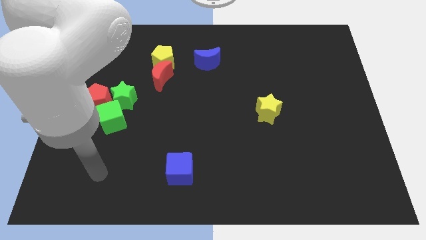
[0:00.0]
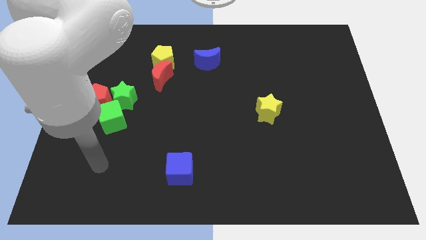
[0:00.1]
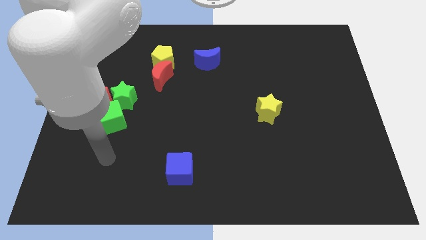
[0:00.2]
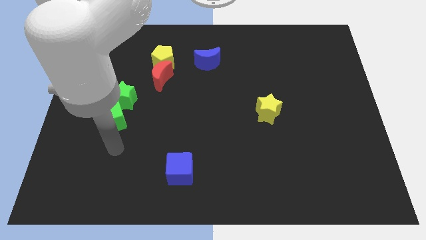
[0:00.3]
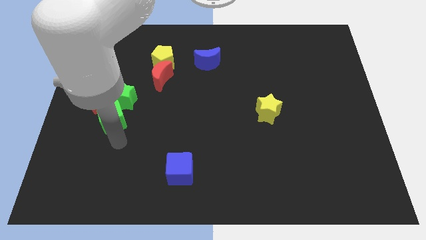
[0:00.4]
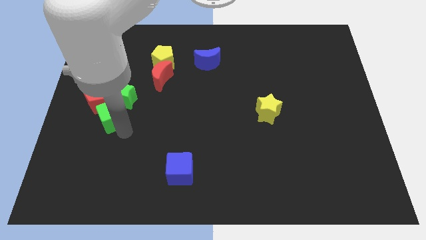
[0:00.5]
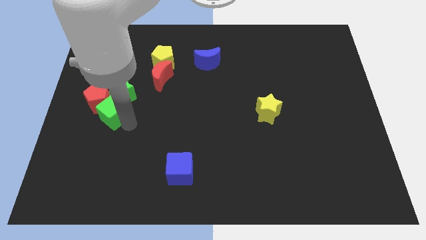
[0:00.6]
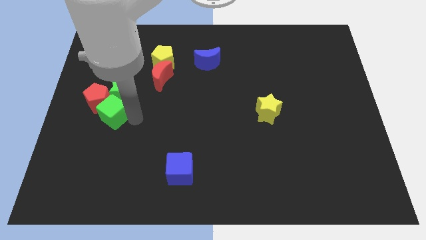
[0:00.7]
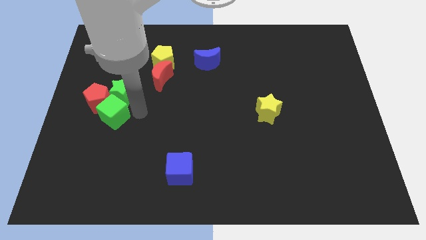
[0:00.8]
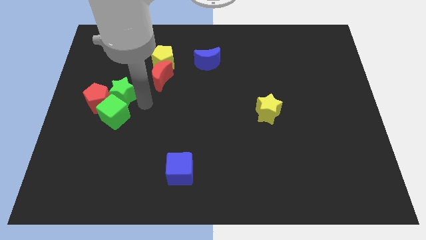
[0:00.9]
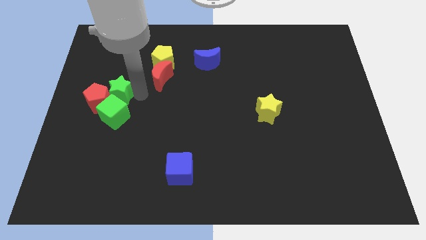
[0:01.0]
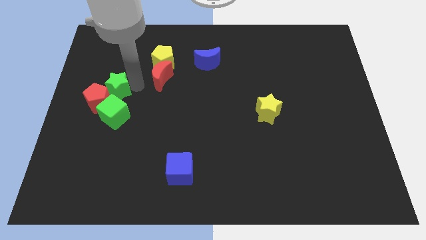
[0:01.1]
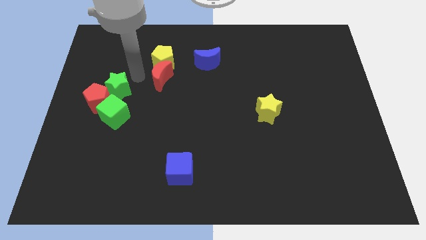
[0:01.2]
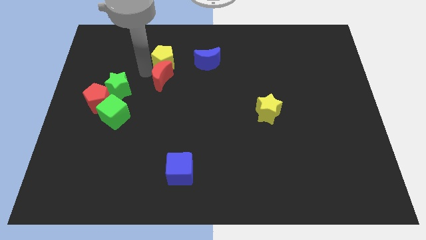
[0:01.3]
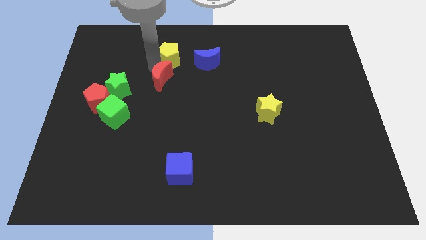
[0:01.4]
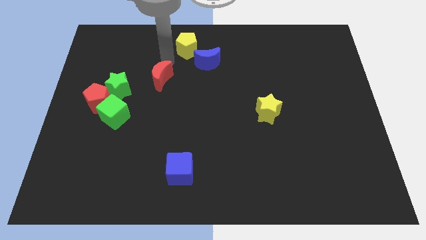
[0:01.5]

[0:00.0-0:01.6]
pull the red moon apart from the yellow pentagon

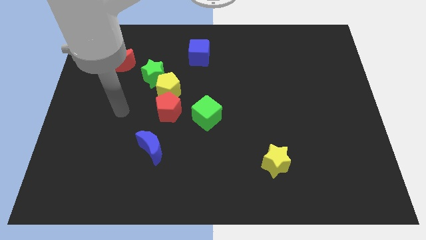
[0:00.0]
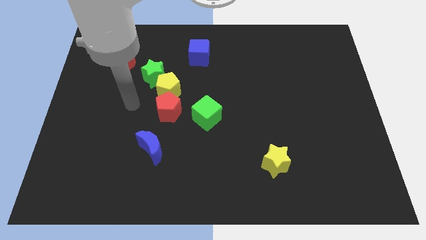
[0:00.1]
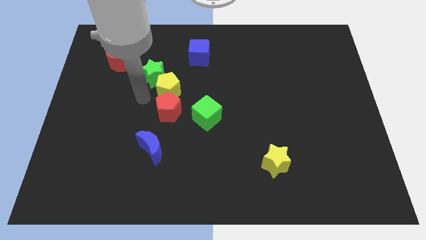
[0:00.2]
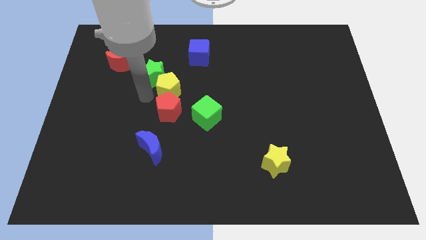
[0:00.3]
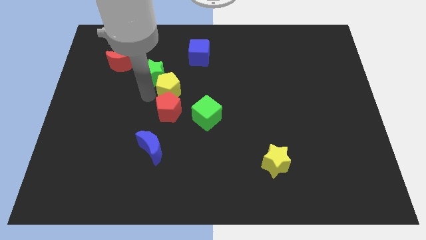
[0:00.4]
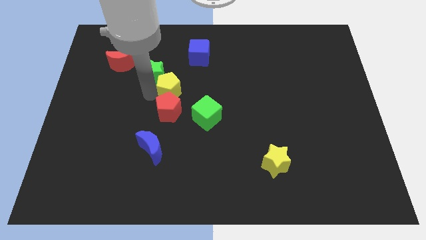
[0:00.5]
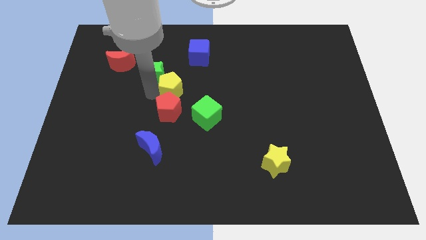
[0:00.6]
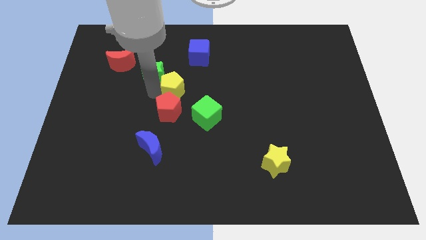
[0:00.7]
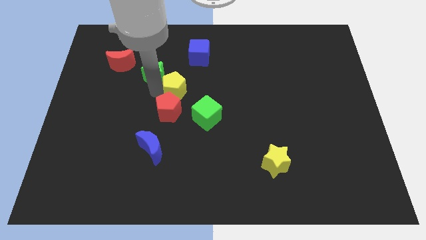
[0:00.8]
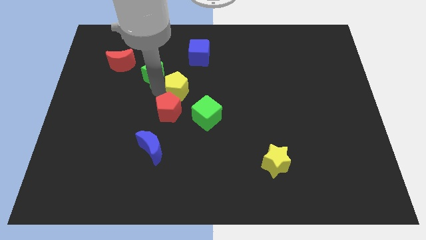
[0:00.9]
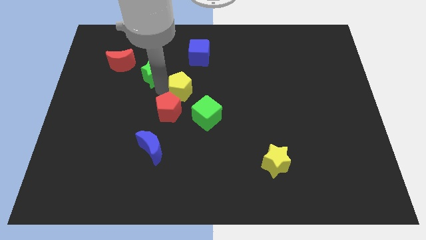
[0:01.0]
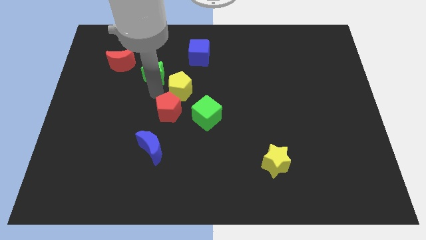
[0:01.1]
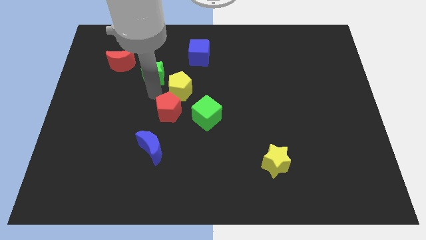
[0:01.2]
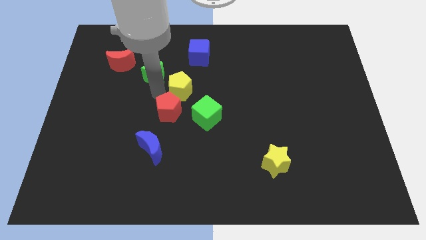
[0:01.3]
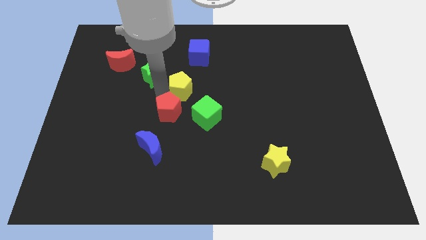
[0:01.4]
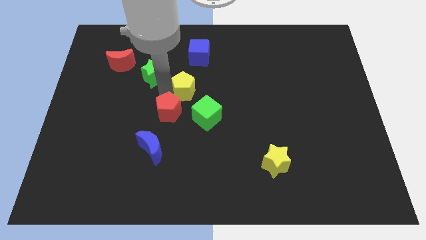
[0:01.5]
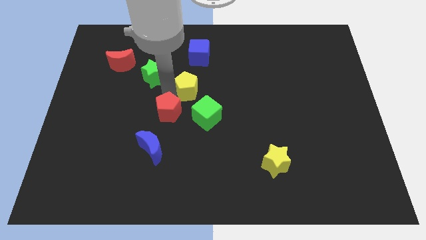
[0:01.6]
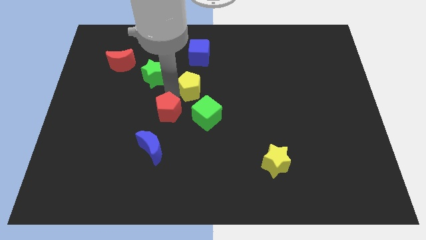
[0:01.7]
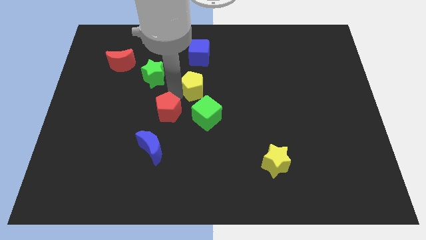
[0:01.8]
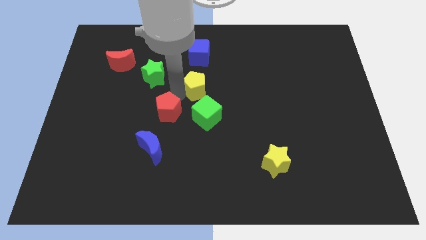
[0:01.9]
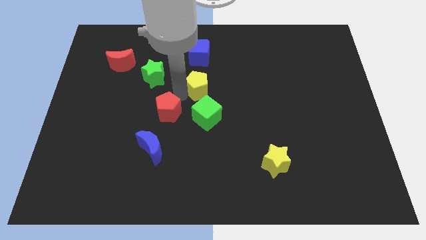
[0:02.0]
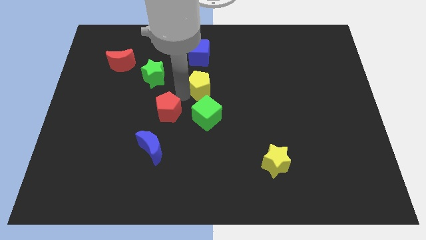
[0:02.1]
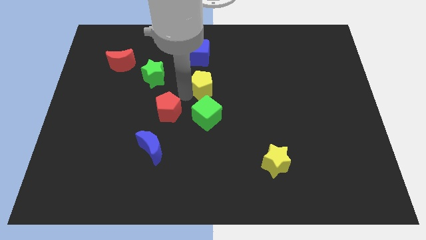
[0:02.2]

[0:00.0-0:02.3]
separate the yellow pentagon from the red pentagon and green star

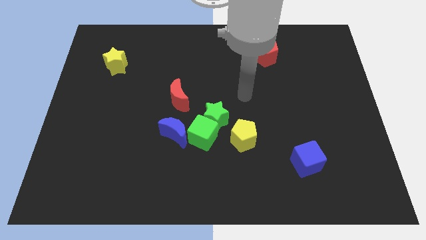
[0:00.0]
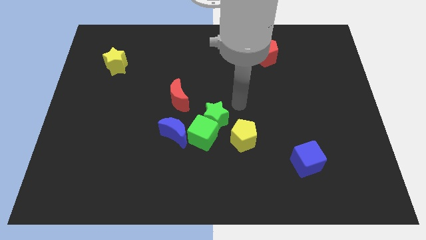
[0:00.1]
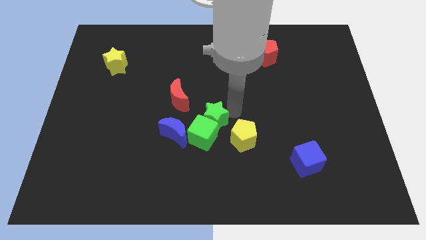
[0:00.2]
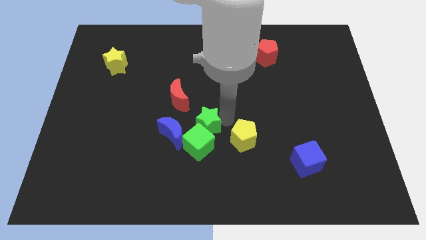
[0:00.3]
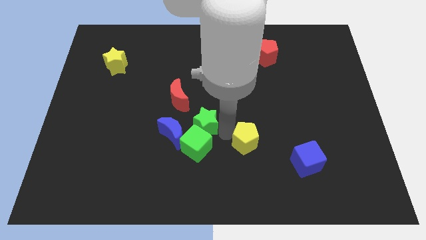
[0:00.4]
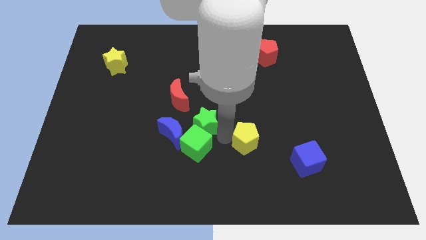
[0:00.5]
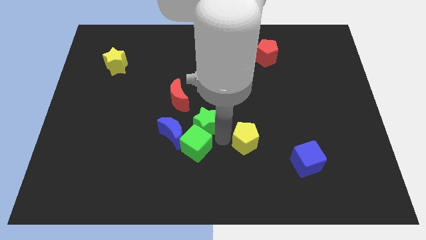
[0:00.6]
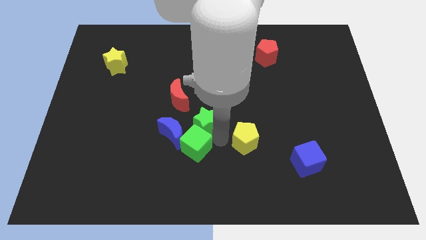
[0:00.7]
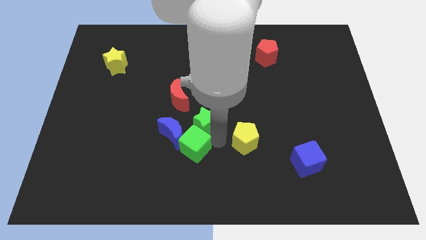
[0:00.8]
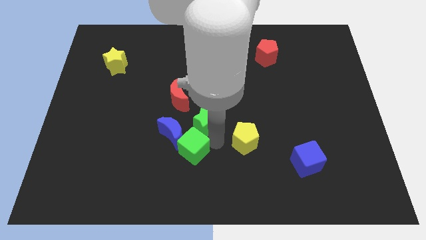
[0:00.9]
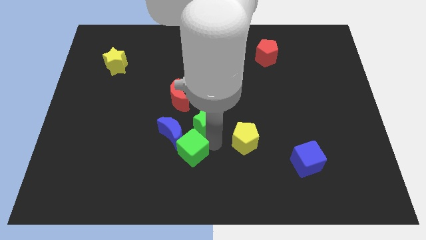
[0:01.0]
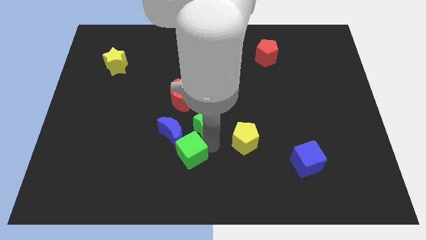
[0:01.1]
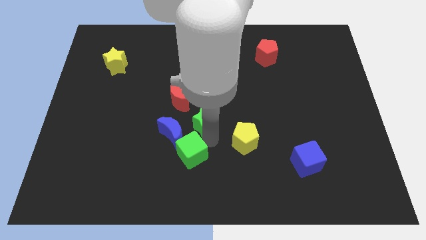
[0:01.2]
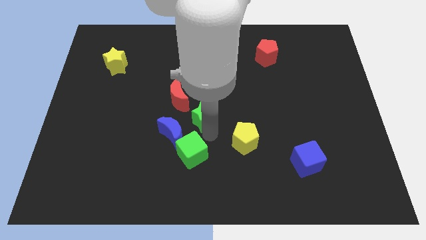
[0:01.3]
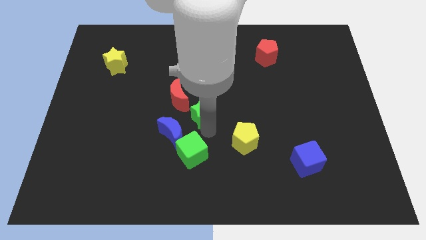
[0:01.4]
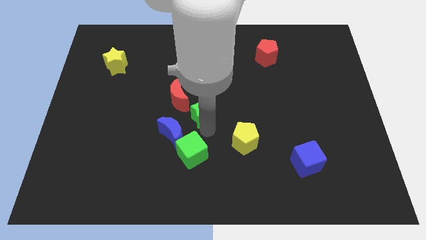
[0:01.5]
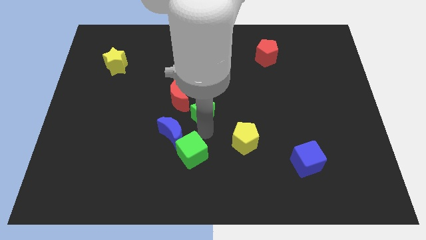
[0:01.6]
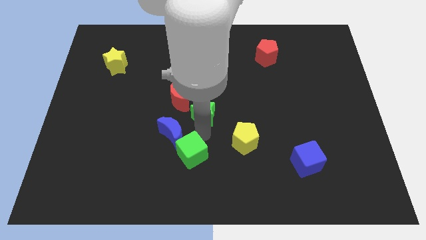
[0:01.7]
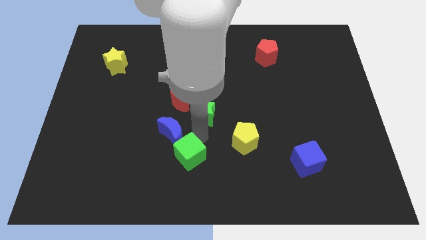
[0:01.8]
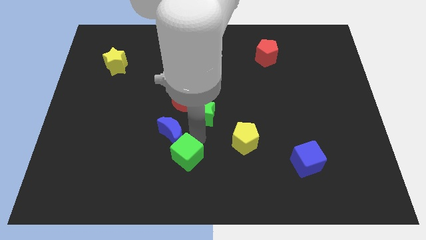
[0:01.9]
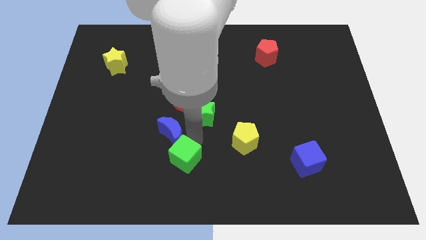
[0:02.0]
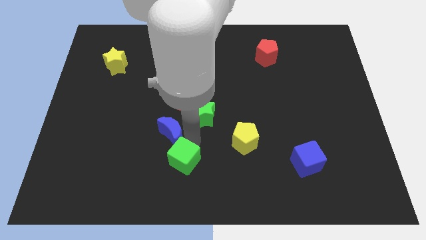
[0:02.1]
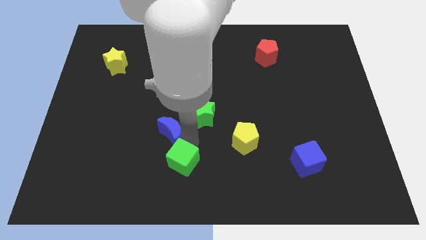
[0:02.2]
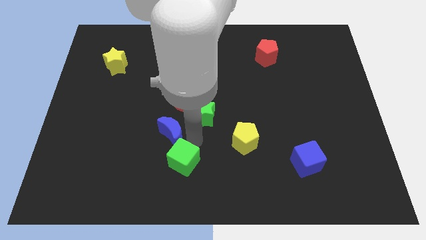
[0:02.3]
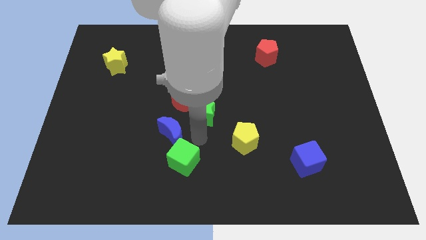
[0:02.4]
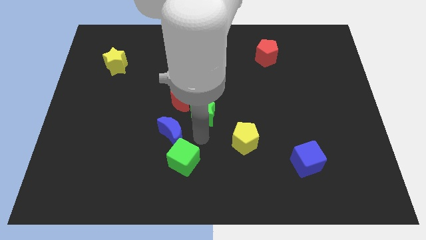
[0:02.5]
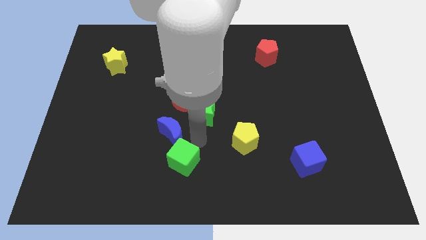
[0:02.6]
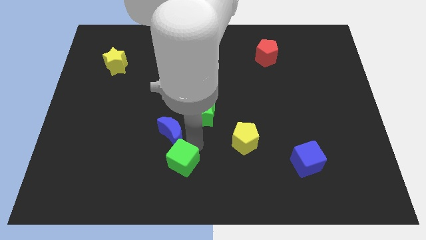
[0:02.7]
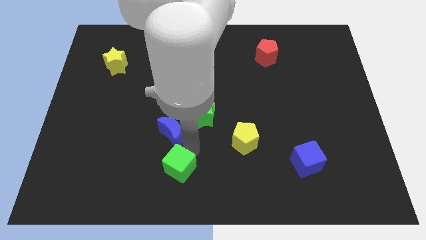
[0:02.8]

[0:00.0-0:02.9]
move the green cube away from the green star, blue moon, and yellow pentagon

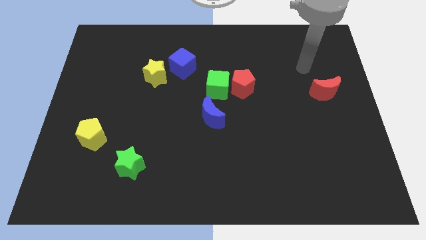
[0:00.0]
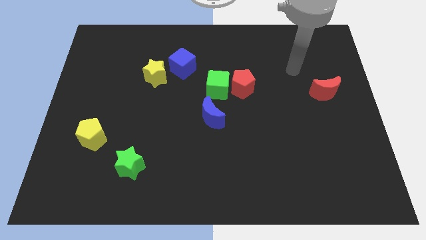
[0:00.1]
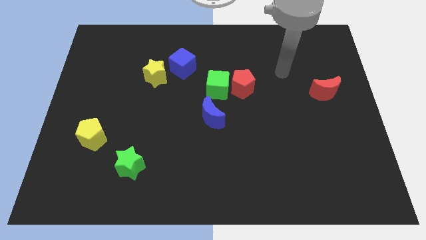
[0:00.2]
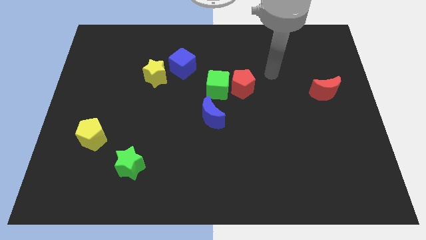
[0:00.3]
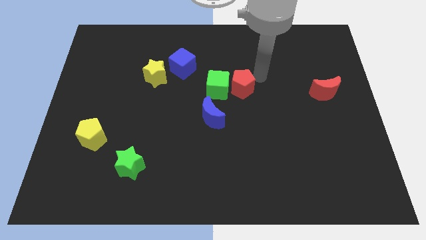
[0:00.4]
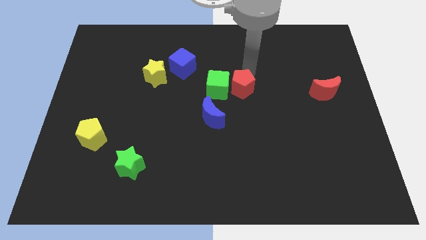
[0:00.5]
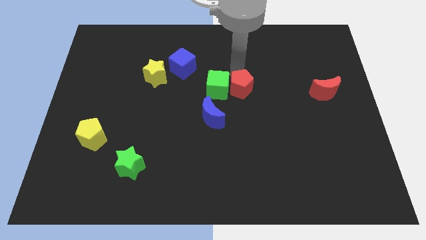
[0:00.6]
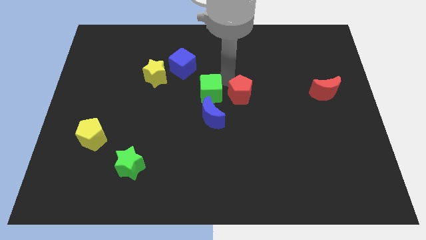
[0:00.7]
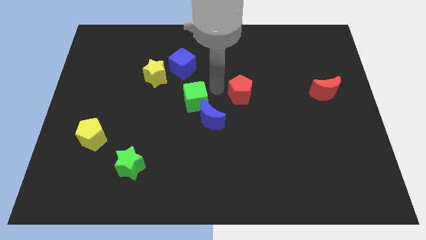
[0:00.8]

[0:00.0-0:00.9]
separate the red pentagon from the green cube

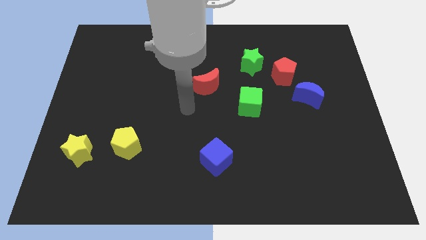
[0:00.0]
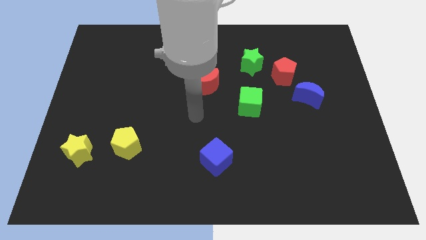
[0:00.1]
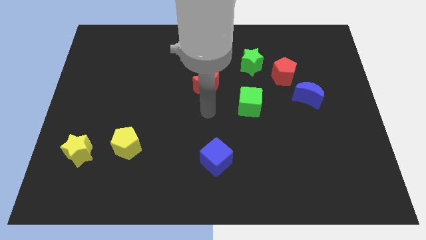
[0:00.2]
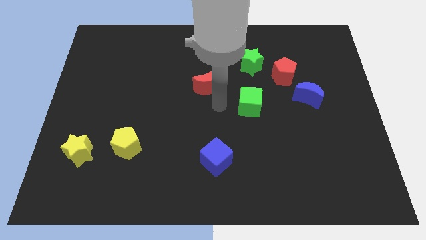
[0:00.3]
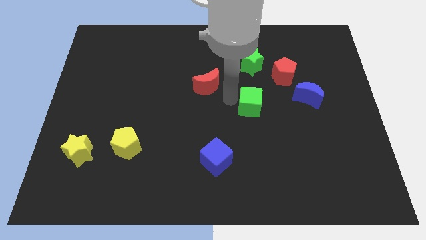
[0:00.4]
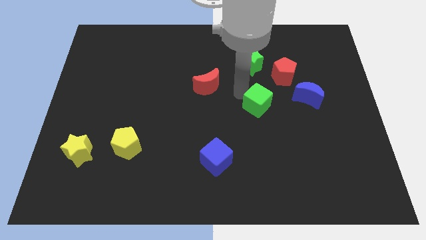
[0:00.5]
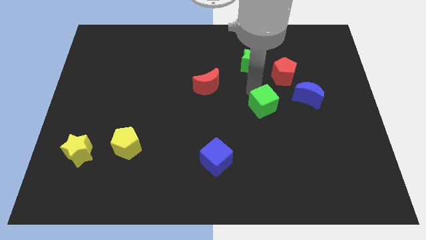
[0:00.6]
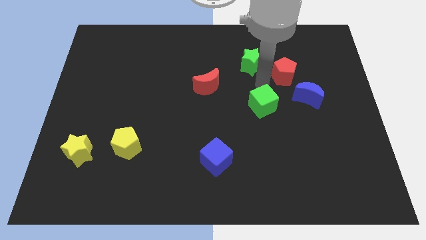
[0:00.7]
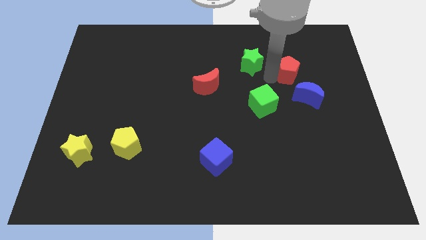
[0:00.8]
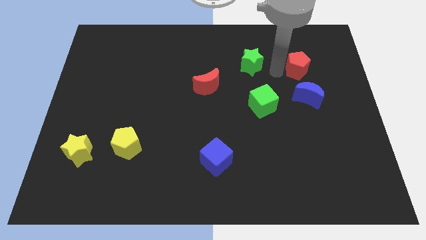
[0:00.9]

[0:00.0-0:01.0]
pull the green star apart from the red pentagon

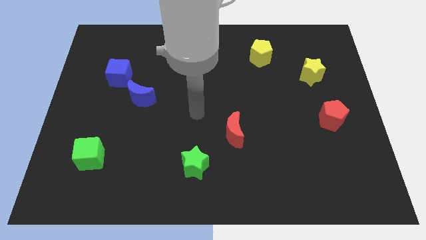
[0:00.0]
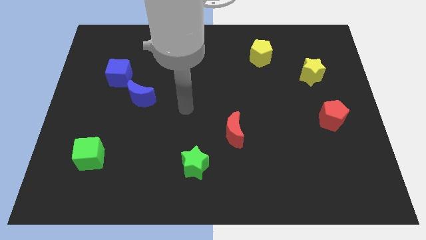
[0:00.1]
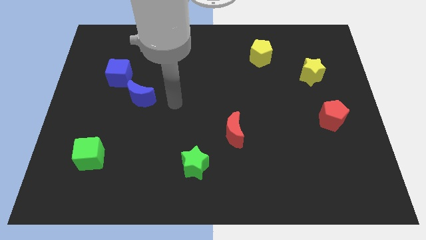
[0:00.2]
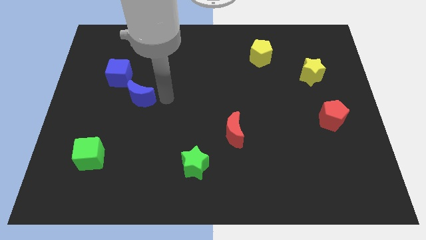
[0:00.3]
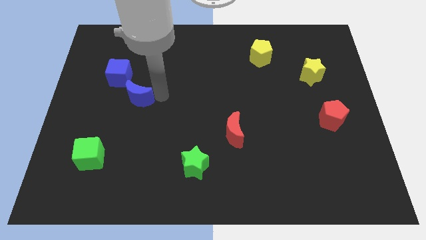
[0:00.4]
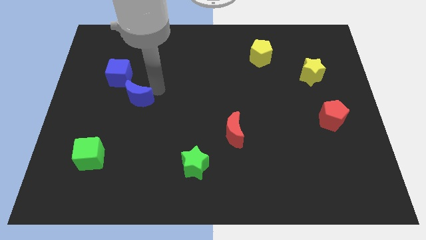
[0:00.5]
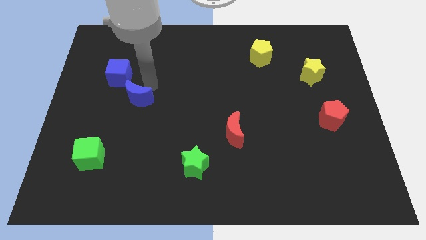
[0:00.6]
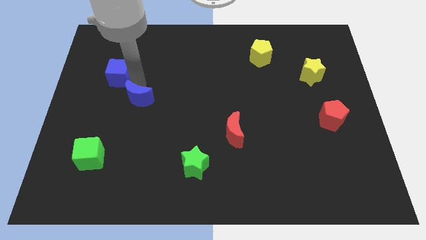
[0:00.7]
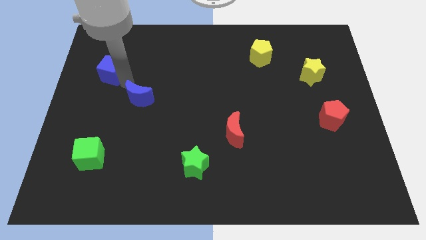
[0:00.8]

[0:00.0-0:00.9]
move the blue moon away from the blue cube
